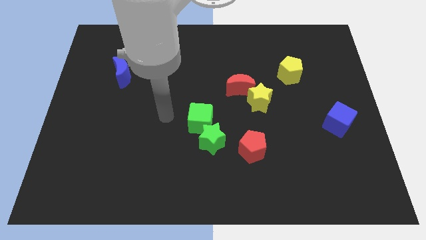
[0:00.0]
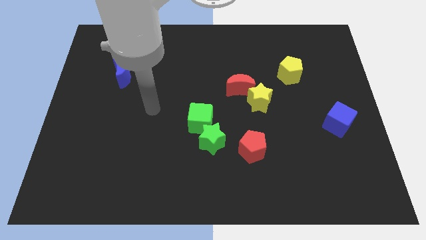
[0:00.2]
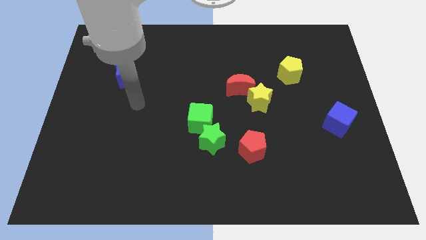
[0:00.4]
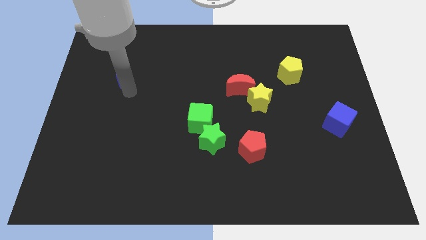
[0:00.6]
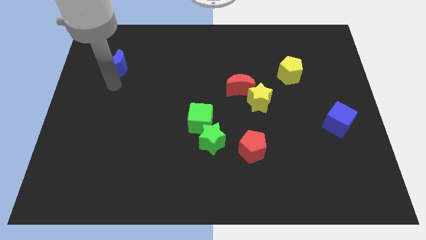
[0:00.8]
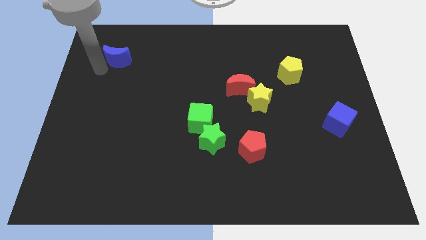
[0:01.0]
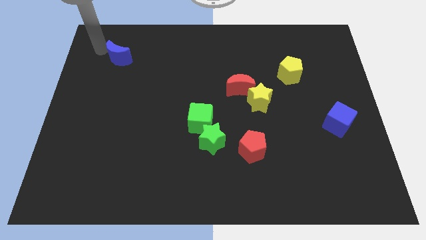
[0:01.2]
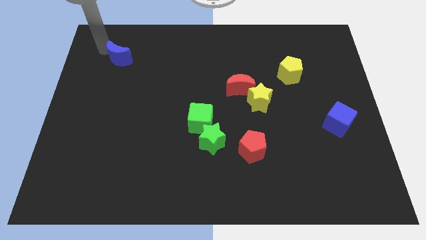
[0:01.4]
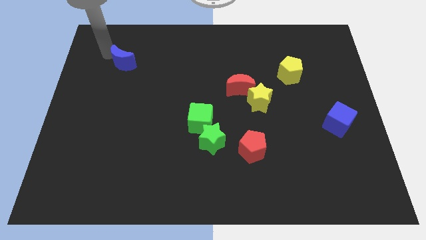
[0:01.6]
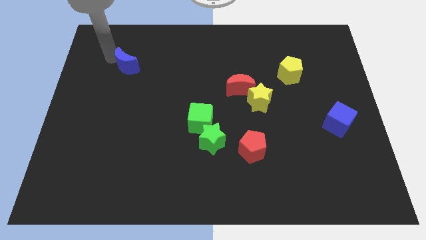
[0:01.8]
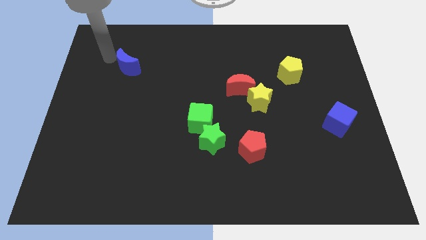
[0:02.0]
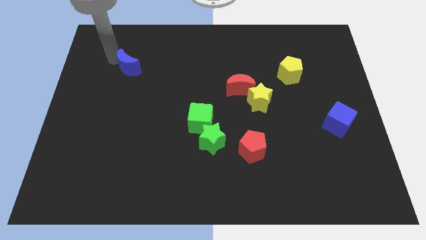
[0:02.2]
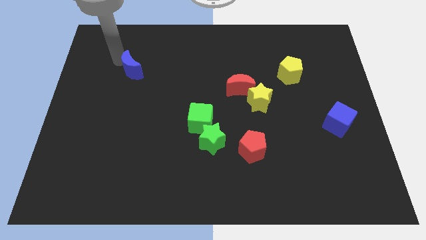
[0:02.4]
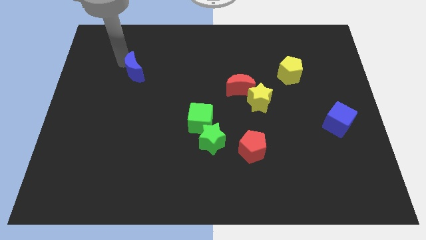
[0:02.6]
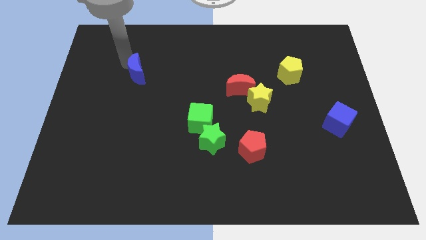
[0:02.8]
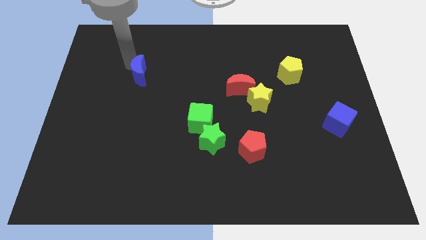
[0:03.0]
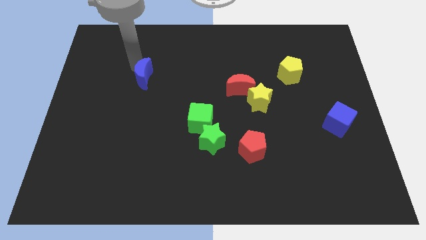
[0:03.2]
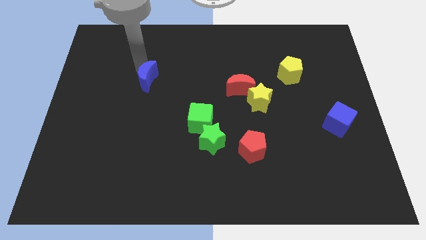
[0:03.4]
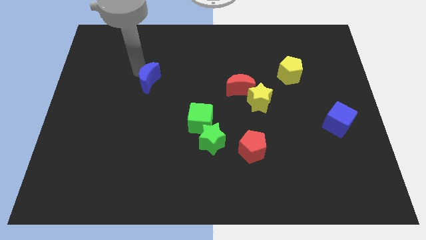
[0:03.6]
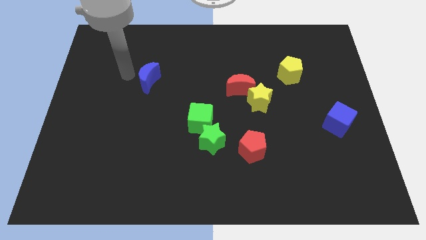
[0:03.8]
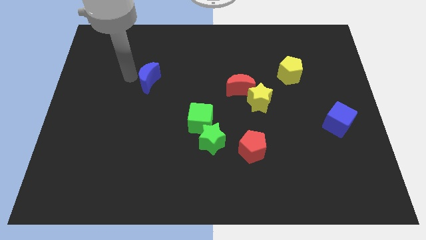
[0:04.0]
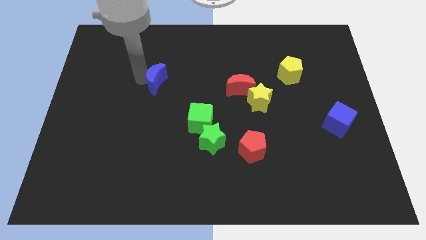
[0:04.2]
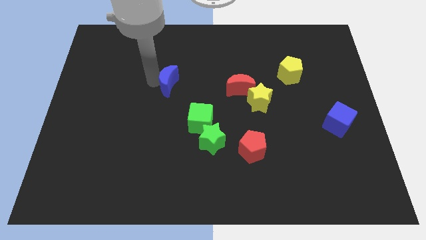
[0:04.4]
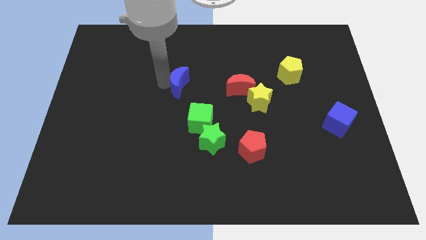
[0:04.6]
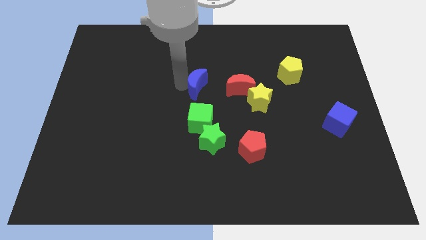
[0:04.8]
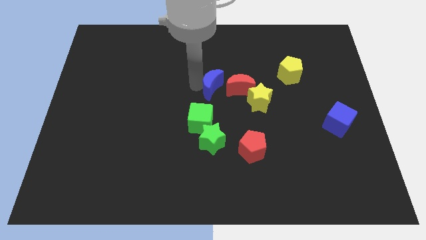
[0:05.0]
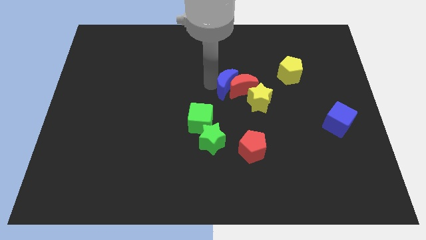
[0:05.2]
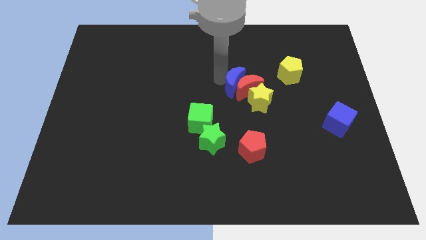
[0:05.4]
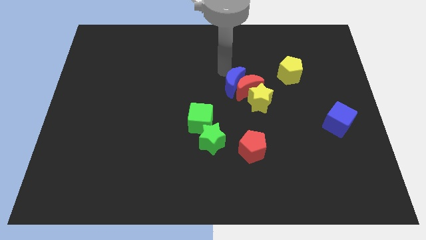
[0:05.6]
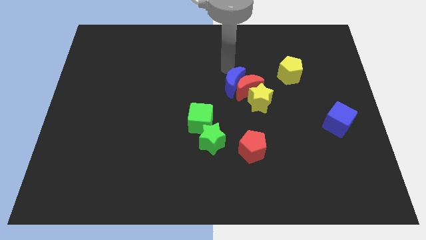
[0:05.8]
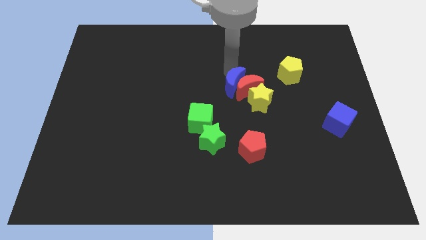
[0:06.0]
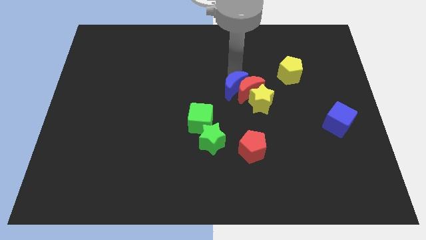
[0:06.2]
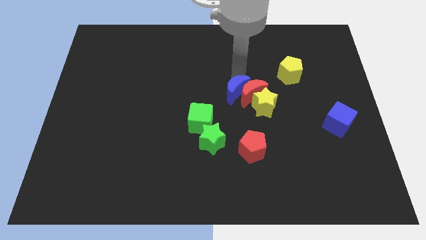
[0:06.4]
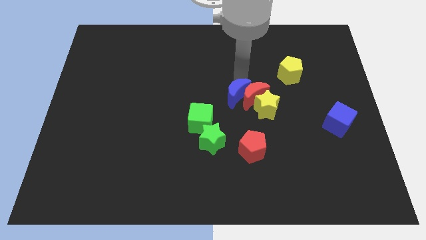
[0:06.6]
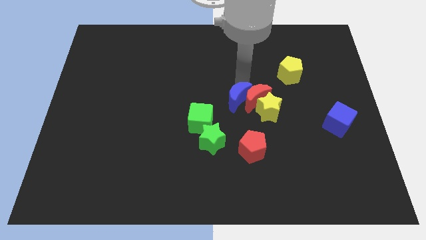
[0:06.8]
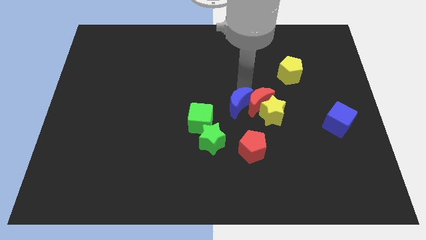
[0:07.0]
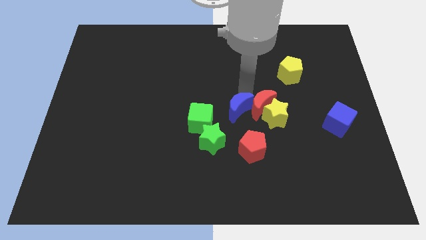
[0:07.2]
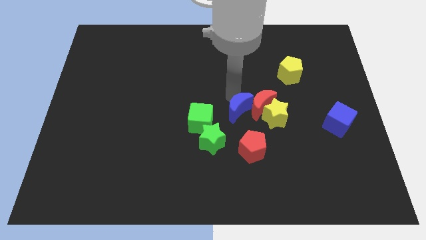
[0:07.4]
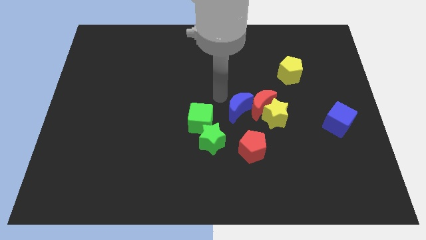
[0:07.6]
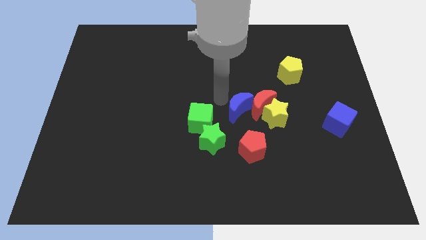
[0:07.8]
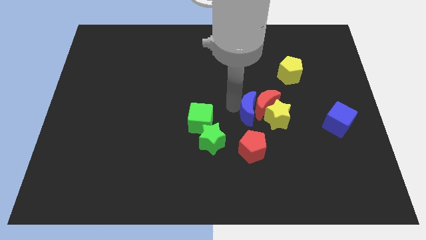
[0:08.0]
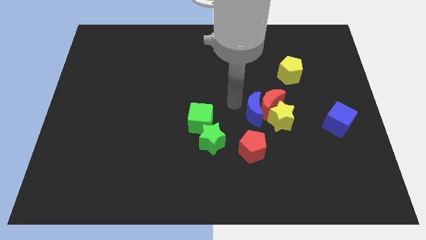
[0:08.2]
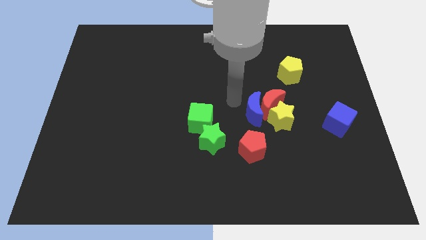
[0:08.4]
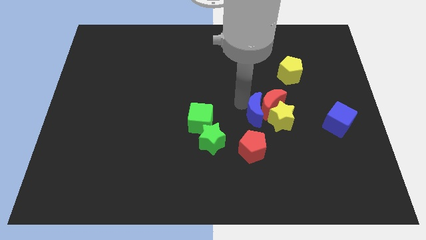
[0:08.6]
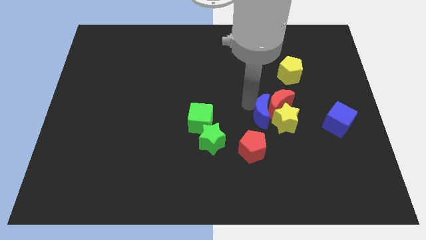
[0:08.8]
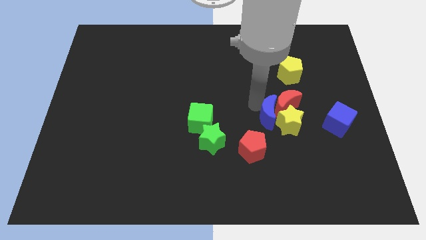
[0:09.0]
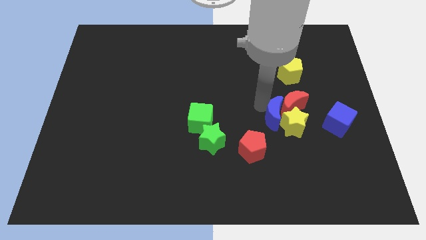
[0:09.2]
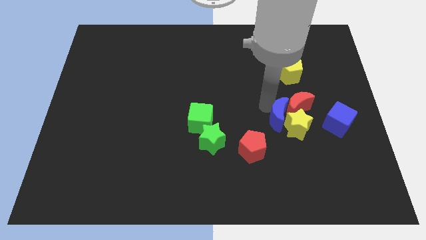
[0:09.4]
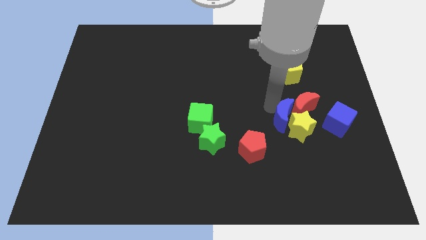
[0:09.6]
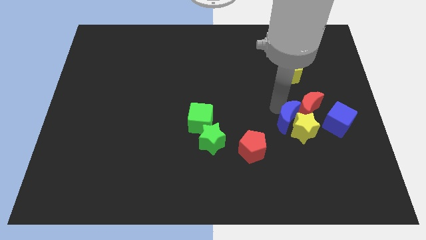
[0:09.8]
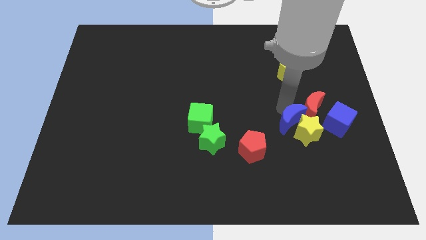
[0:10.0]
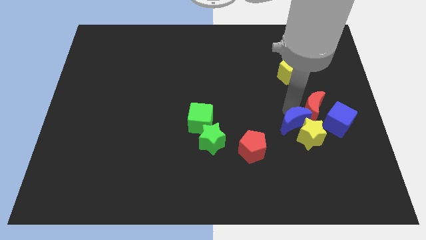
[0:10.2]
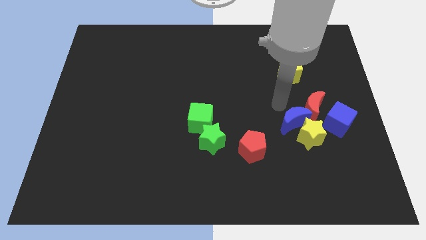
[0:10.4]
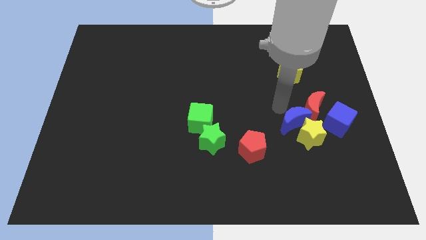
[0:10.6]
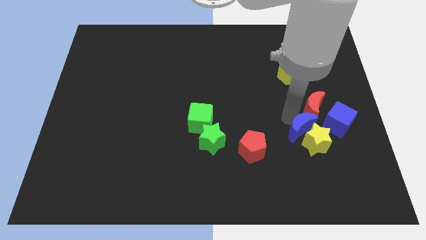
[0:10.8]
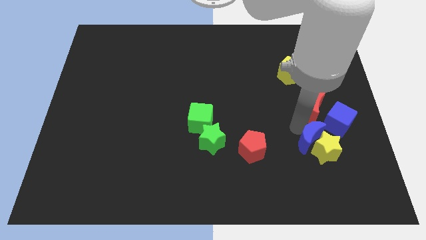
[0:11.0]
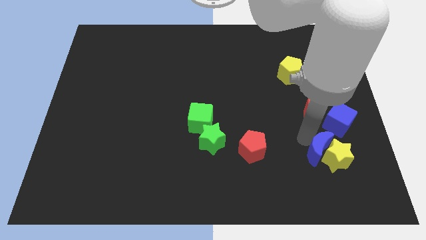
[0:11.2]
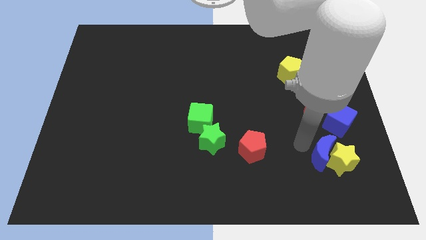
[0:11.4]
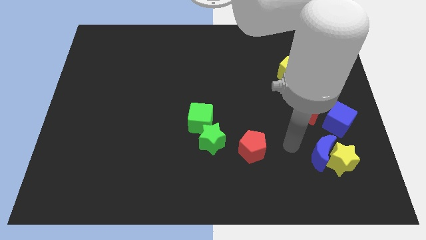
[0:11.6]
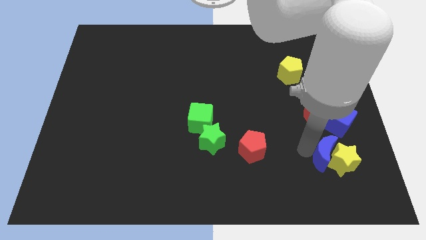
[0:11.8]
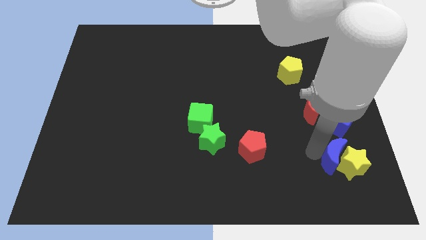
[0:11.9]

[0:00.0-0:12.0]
move the blue moon to the bottom of the blue cube

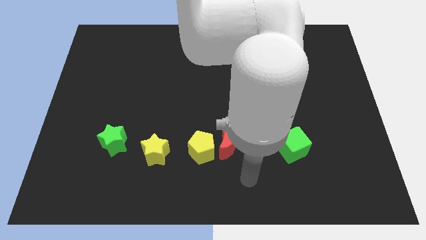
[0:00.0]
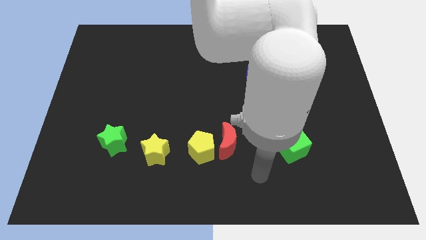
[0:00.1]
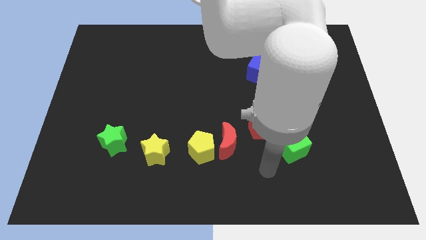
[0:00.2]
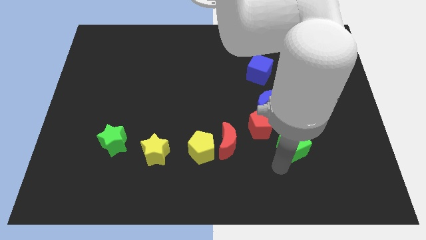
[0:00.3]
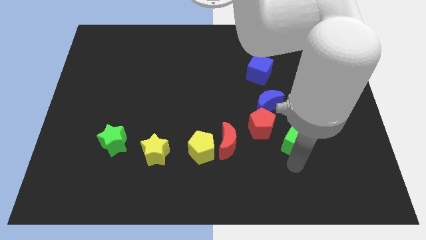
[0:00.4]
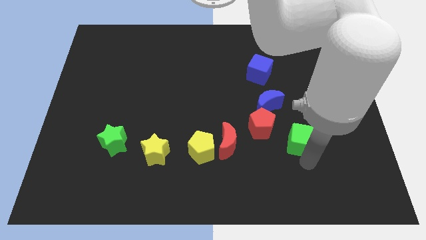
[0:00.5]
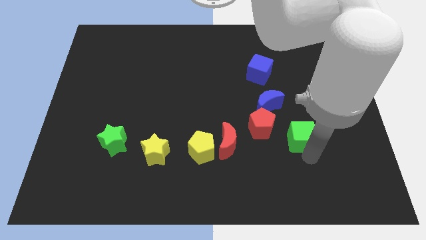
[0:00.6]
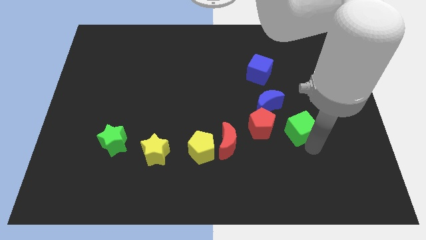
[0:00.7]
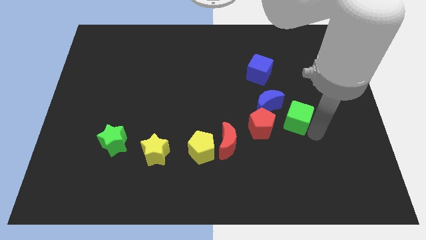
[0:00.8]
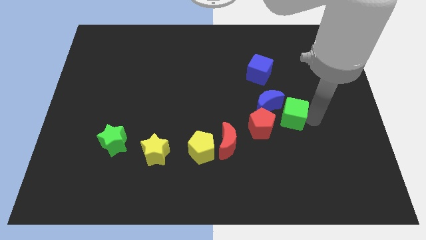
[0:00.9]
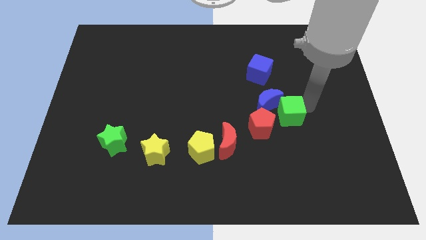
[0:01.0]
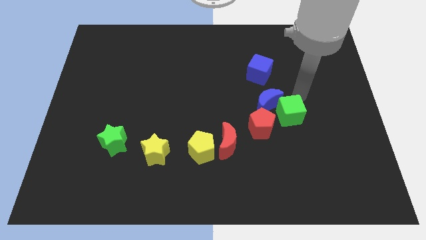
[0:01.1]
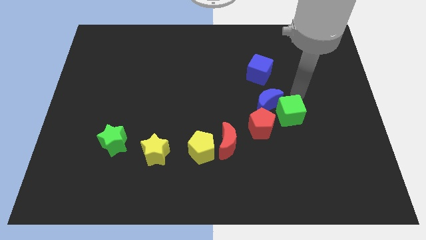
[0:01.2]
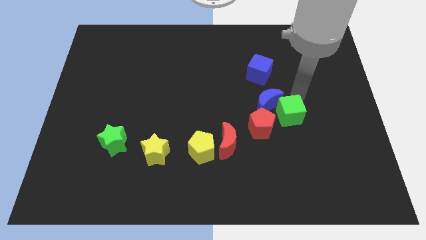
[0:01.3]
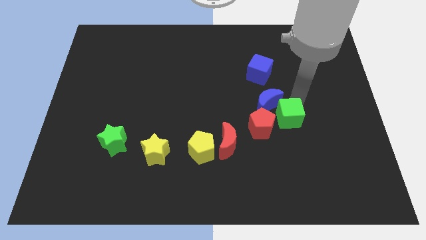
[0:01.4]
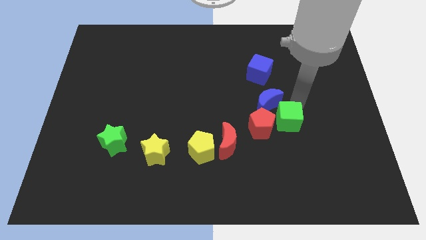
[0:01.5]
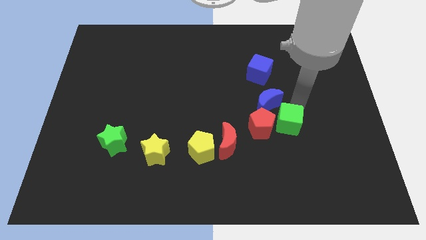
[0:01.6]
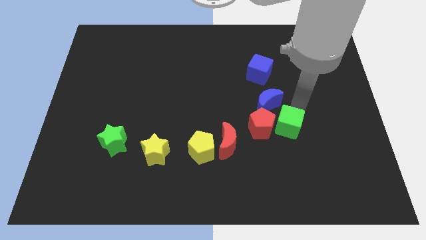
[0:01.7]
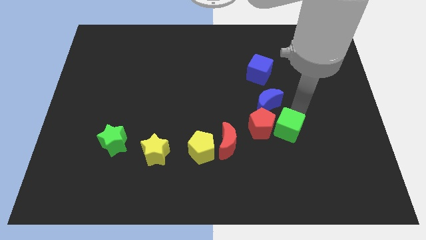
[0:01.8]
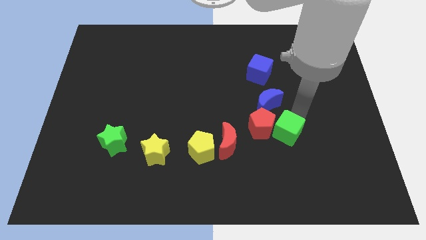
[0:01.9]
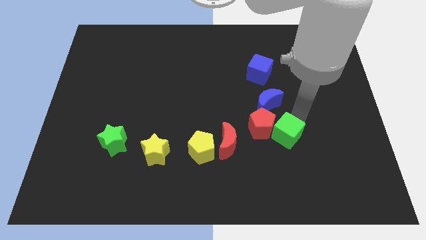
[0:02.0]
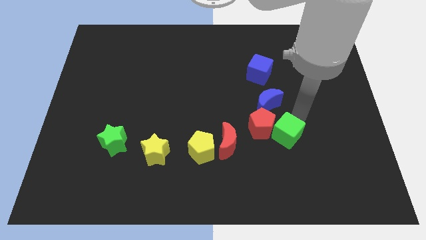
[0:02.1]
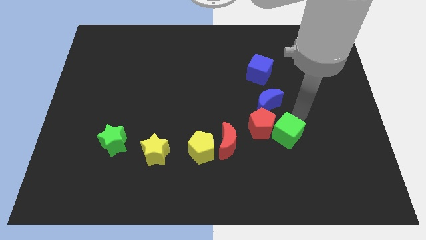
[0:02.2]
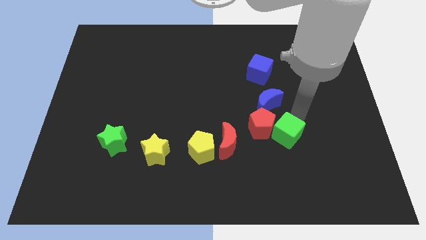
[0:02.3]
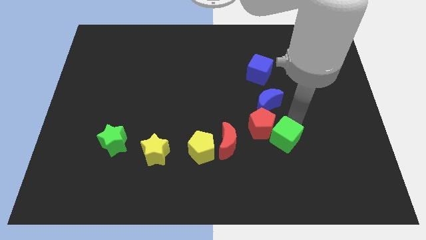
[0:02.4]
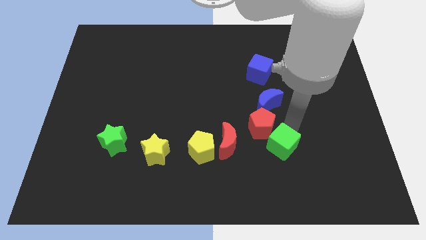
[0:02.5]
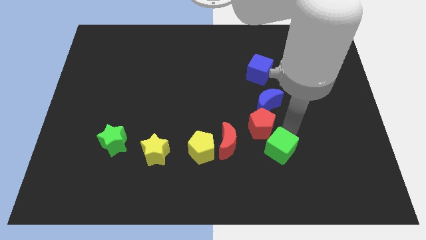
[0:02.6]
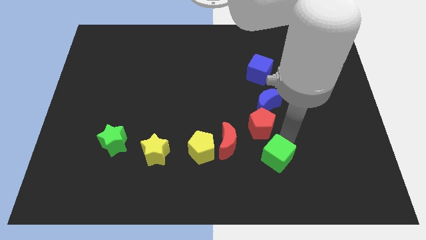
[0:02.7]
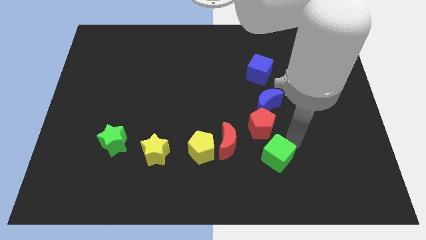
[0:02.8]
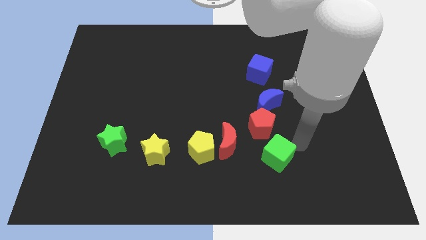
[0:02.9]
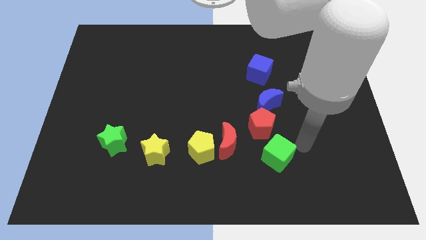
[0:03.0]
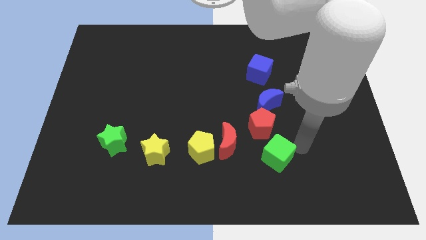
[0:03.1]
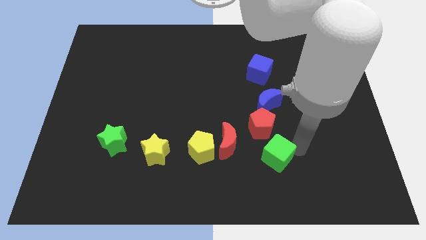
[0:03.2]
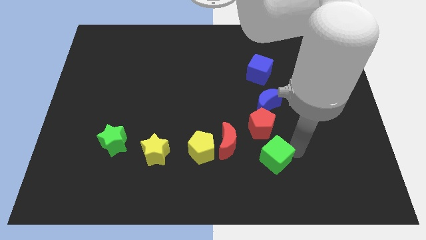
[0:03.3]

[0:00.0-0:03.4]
put the green cube to the bottom right side of the red moon
